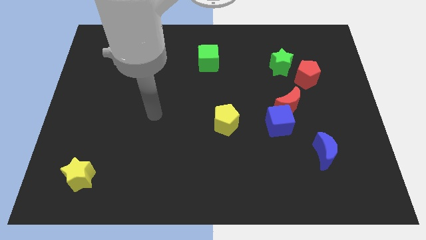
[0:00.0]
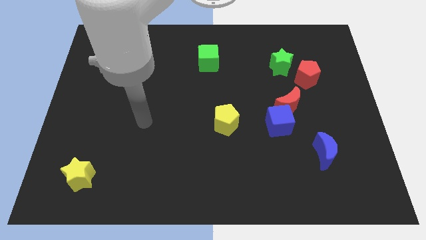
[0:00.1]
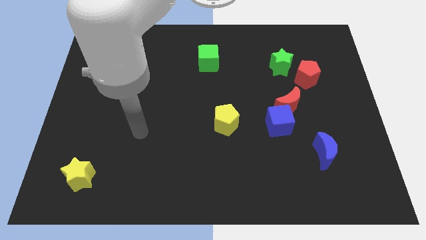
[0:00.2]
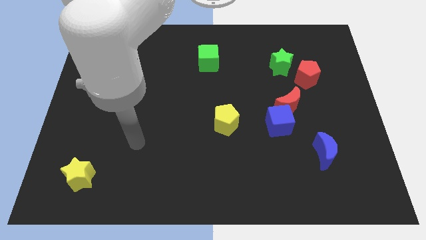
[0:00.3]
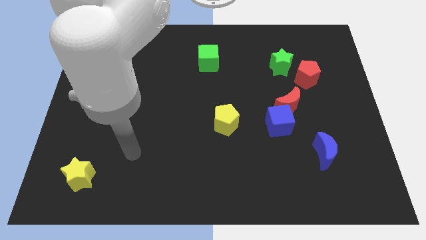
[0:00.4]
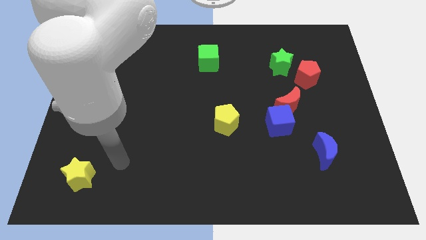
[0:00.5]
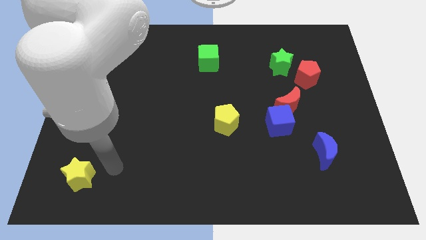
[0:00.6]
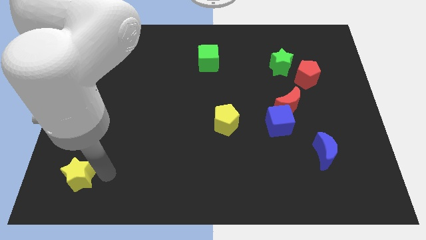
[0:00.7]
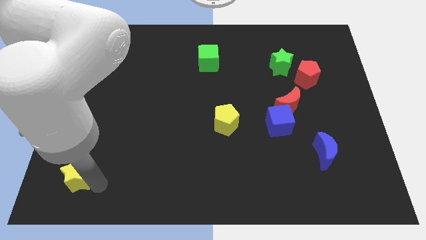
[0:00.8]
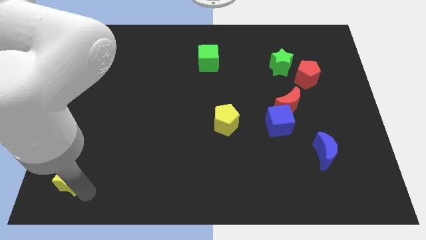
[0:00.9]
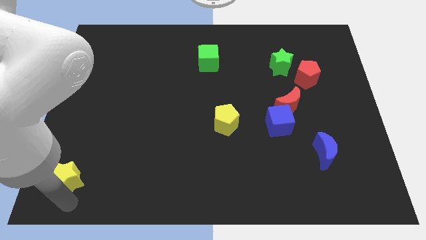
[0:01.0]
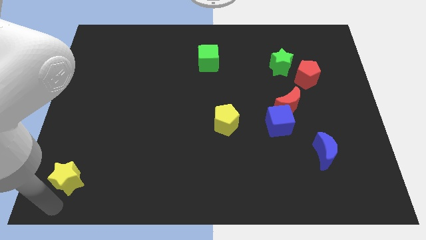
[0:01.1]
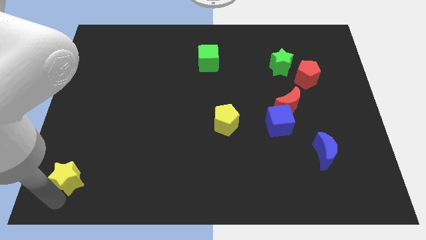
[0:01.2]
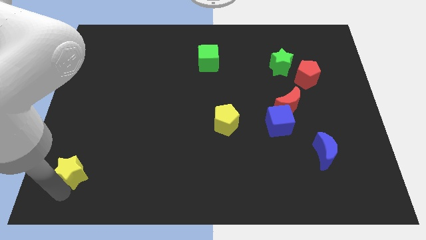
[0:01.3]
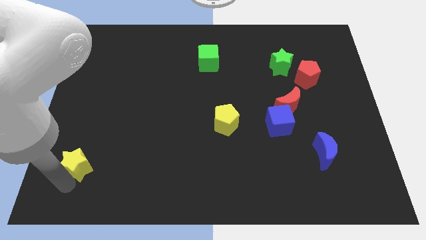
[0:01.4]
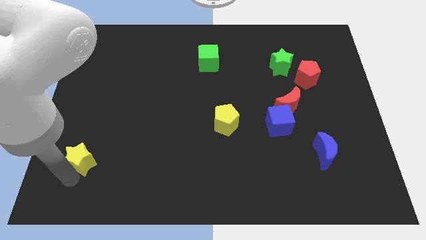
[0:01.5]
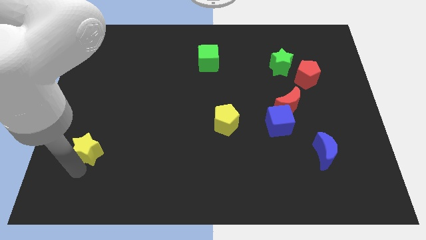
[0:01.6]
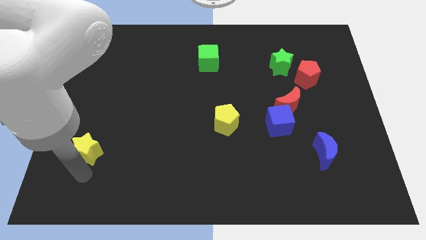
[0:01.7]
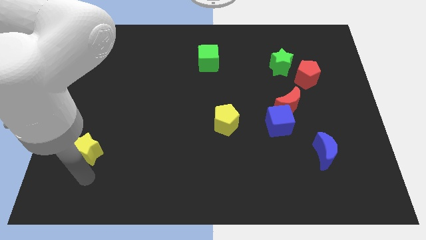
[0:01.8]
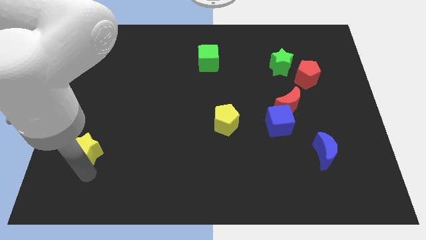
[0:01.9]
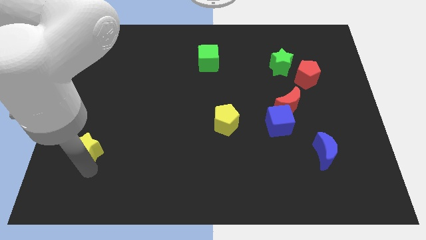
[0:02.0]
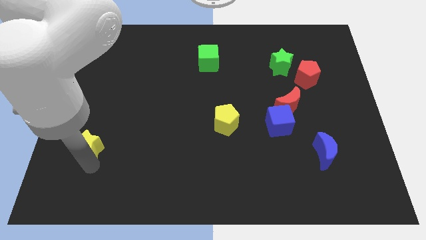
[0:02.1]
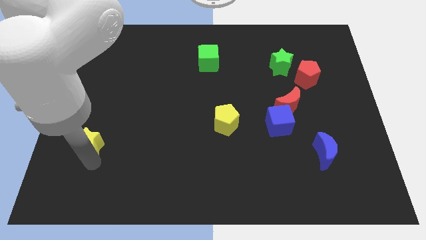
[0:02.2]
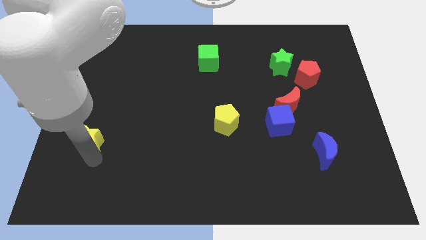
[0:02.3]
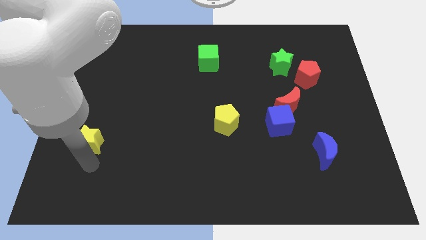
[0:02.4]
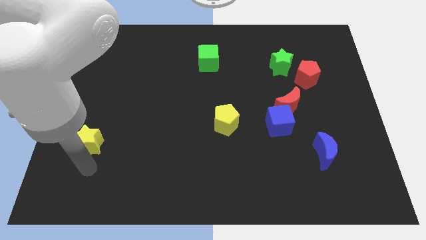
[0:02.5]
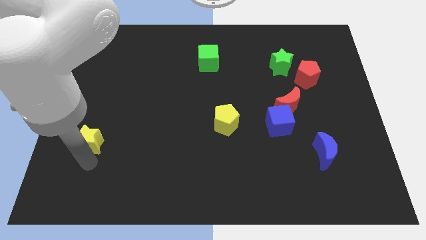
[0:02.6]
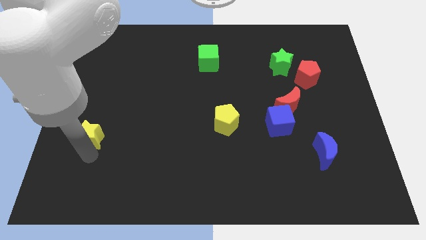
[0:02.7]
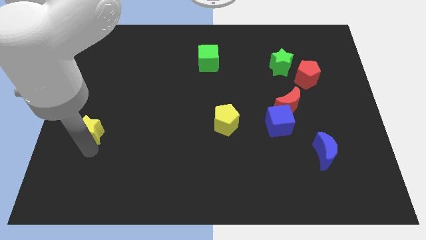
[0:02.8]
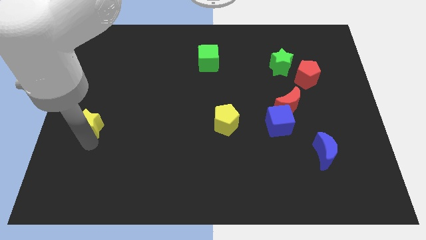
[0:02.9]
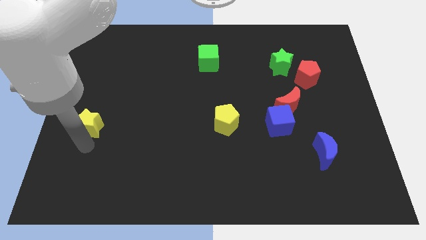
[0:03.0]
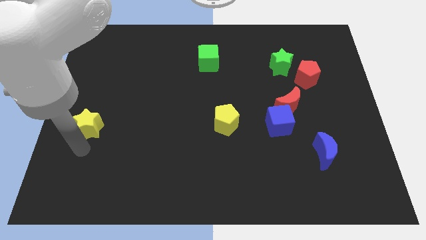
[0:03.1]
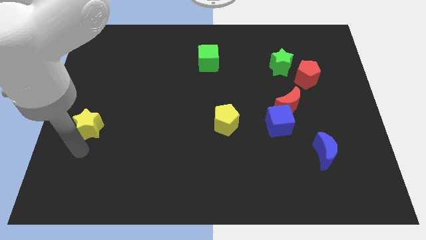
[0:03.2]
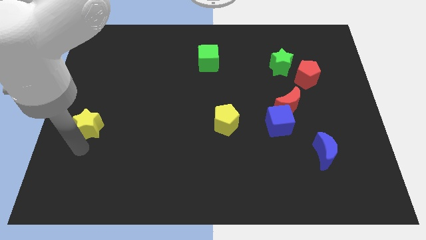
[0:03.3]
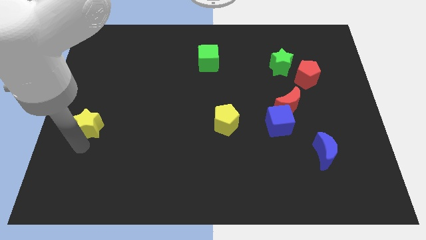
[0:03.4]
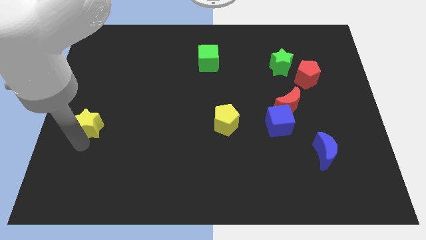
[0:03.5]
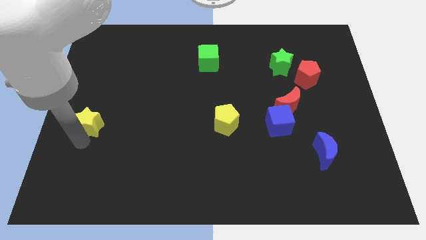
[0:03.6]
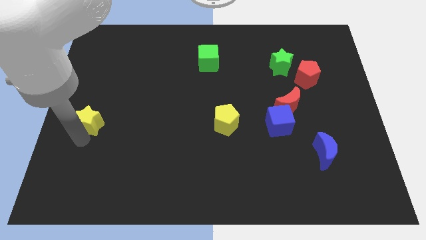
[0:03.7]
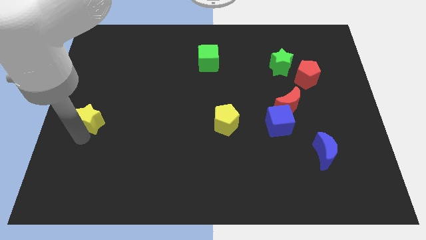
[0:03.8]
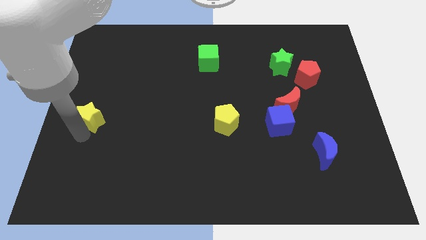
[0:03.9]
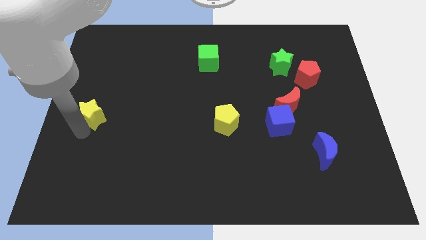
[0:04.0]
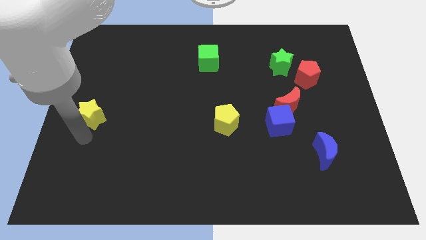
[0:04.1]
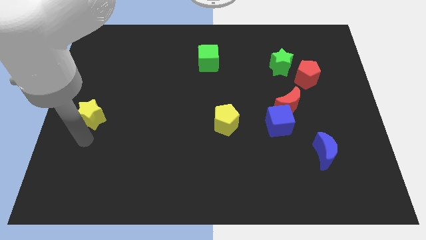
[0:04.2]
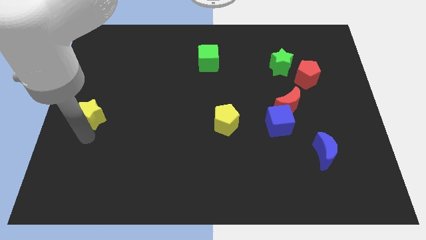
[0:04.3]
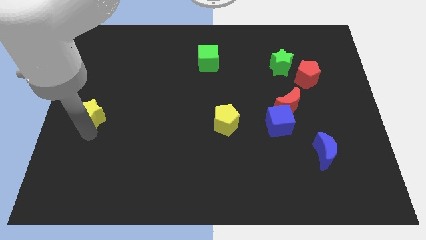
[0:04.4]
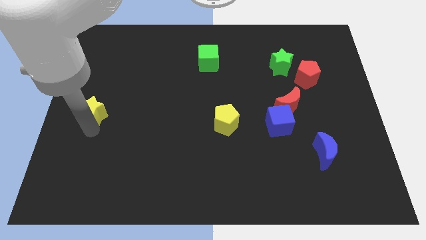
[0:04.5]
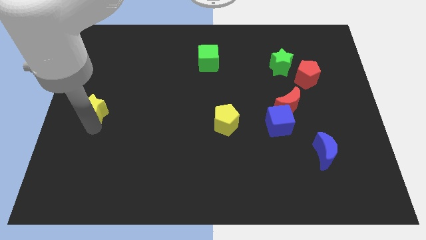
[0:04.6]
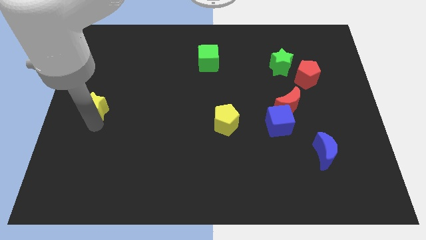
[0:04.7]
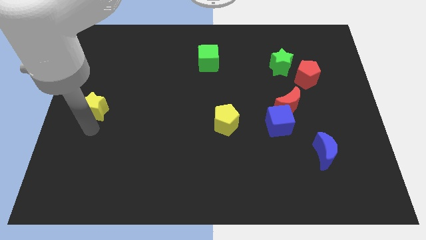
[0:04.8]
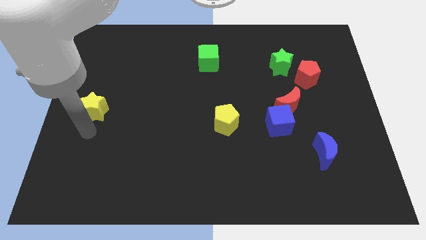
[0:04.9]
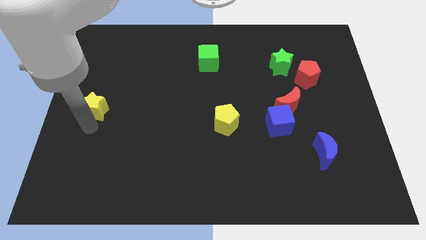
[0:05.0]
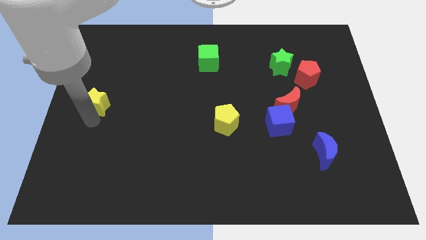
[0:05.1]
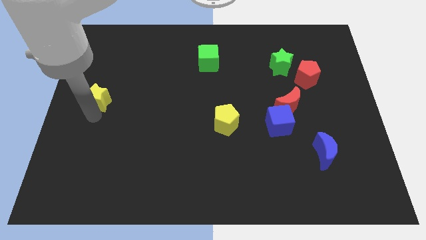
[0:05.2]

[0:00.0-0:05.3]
move the yellow star upwards

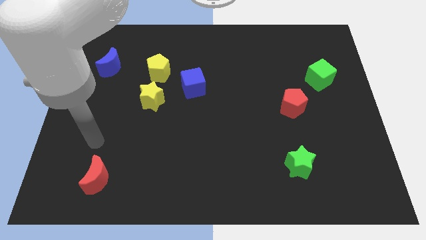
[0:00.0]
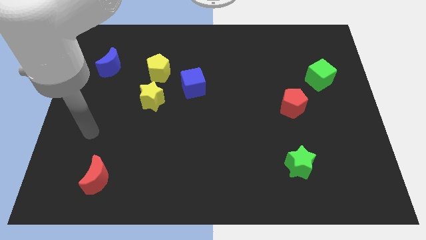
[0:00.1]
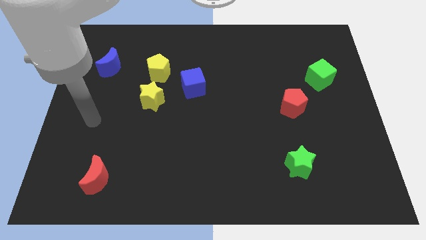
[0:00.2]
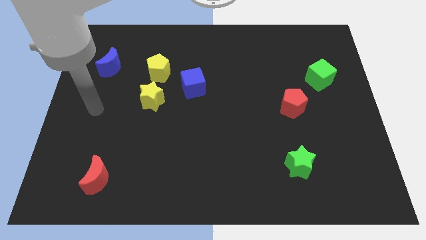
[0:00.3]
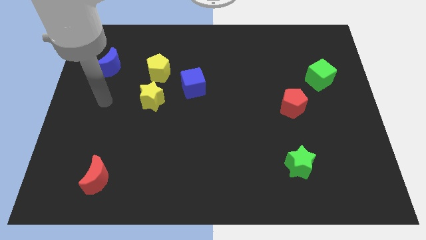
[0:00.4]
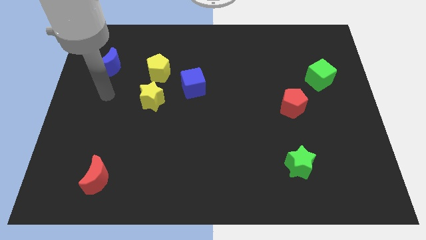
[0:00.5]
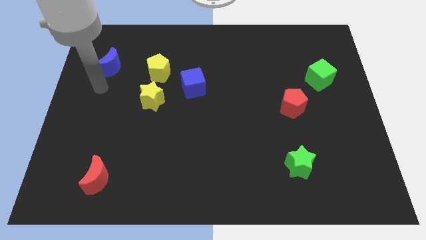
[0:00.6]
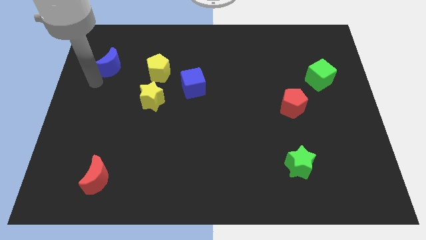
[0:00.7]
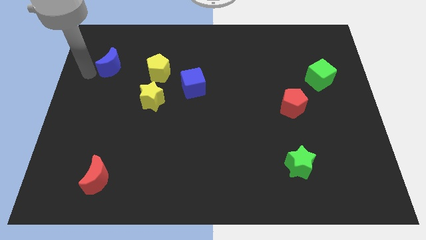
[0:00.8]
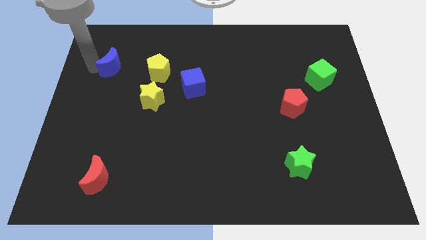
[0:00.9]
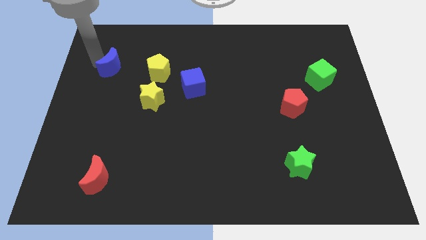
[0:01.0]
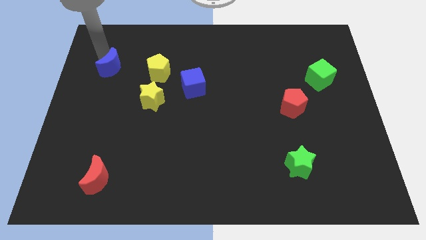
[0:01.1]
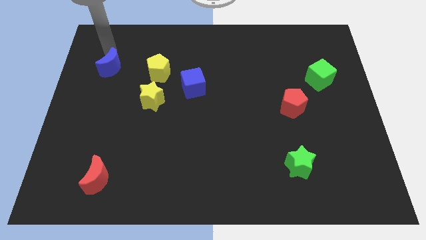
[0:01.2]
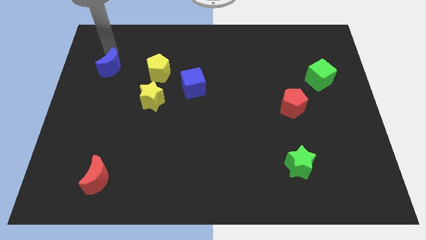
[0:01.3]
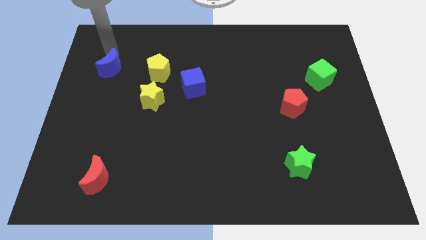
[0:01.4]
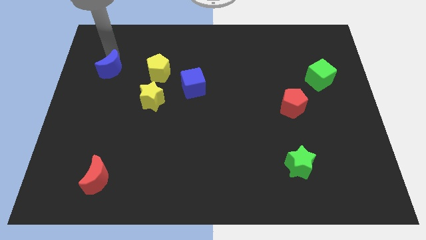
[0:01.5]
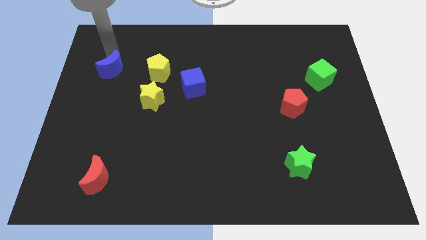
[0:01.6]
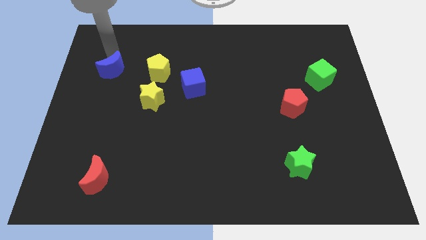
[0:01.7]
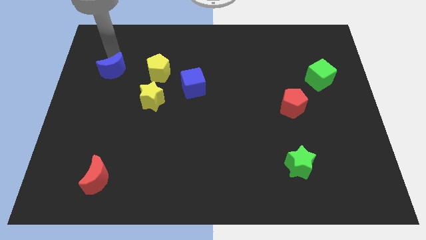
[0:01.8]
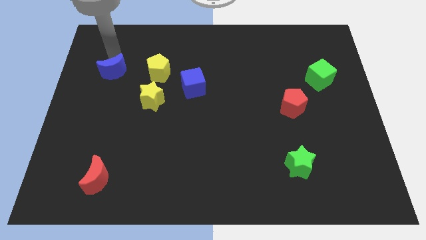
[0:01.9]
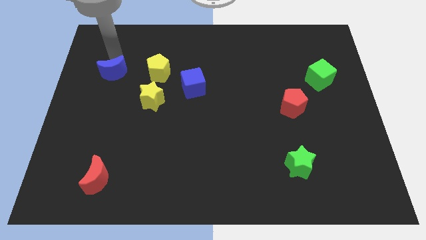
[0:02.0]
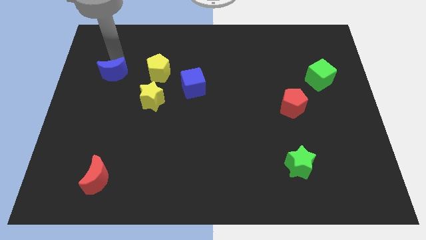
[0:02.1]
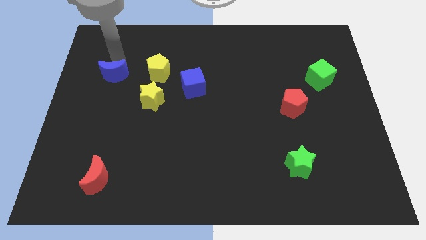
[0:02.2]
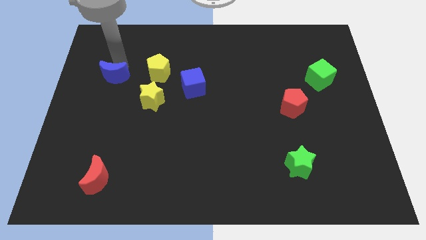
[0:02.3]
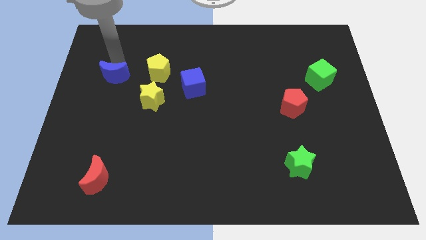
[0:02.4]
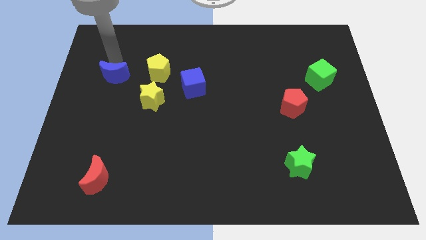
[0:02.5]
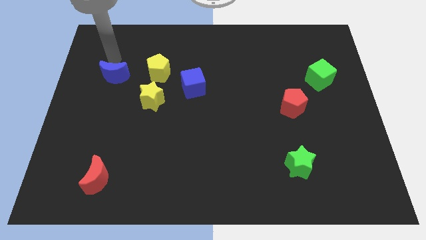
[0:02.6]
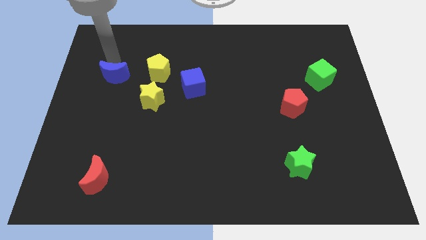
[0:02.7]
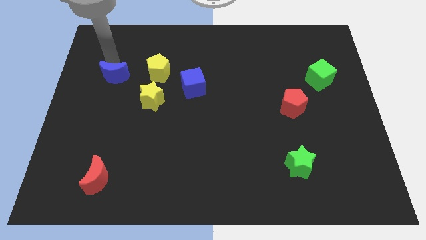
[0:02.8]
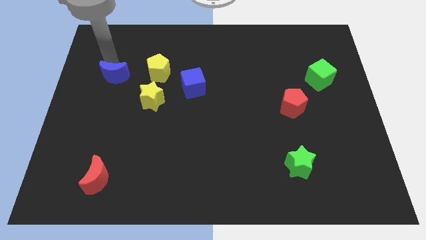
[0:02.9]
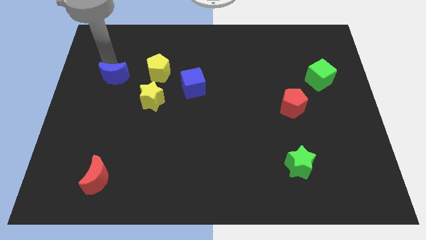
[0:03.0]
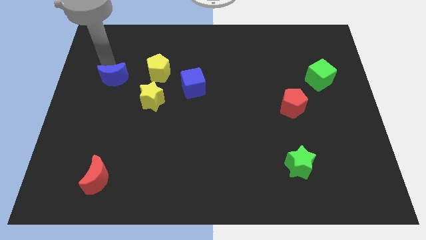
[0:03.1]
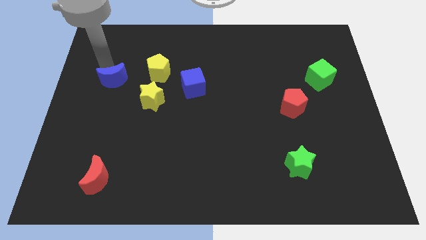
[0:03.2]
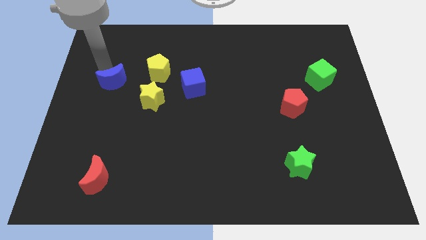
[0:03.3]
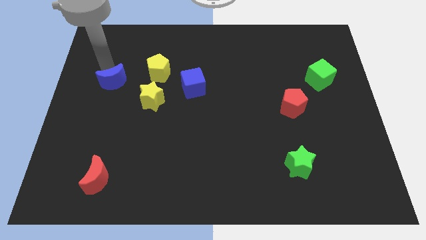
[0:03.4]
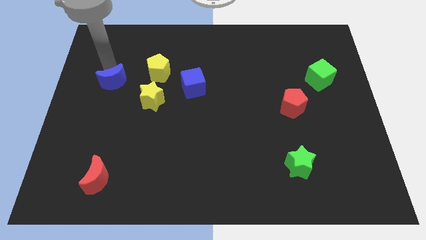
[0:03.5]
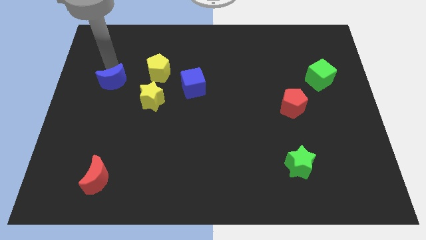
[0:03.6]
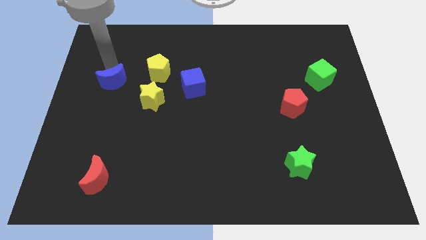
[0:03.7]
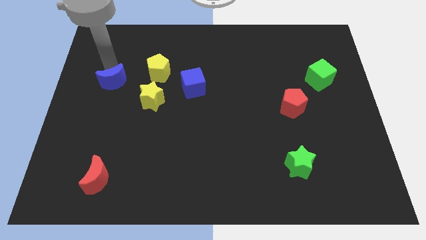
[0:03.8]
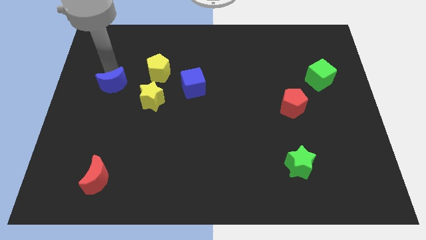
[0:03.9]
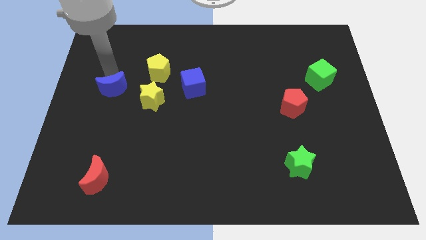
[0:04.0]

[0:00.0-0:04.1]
slightly push the blue moon downwards
